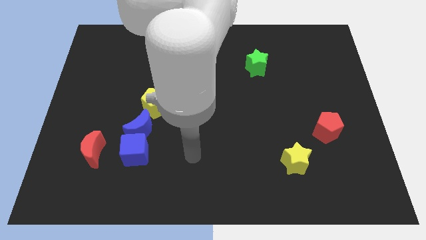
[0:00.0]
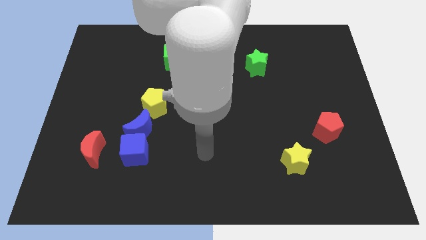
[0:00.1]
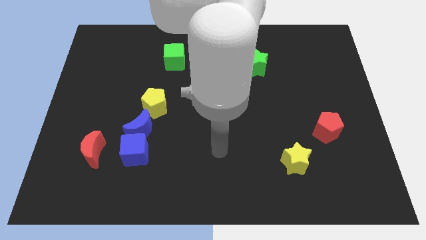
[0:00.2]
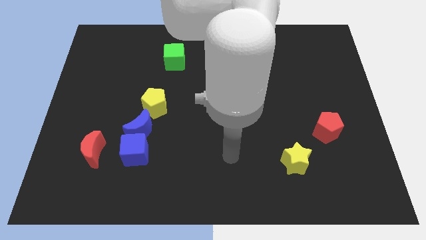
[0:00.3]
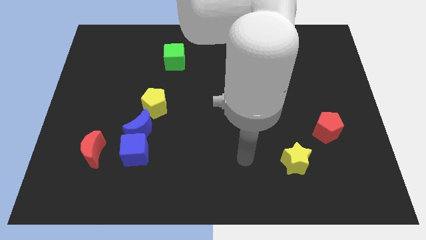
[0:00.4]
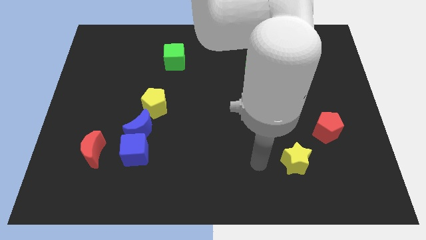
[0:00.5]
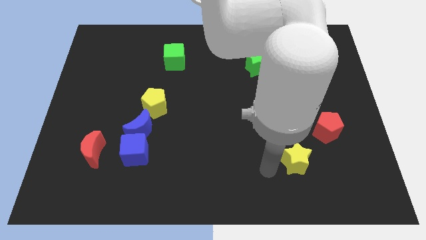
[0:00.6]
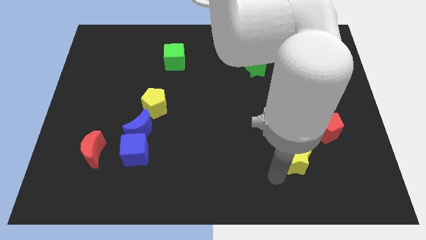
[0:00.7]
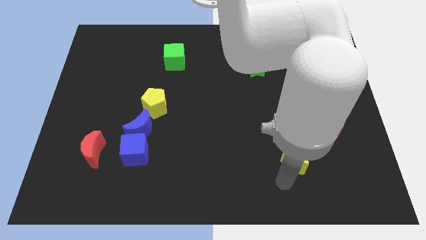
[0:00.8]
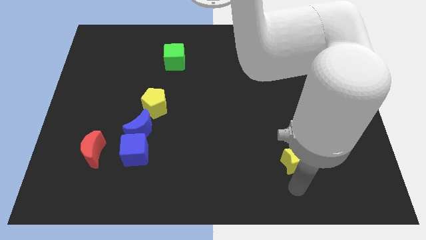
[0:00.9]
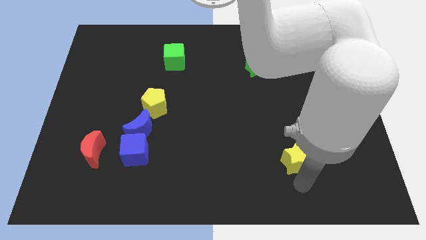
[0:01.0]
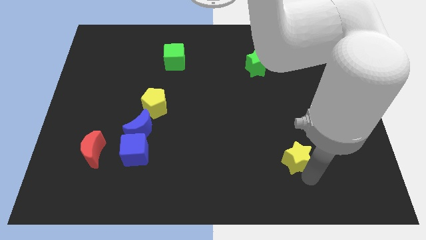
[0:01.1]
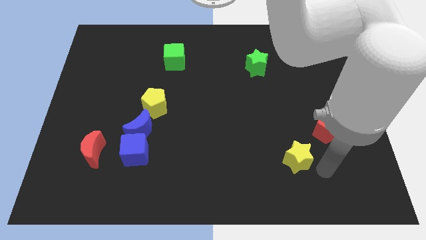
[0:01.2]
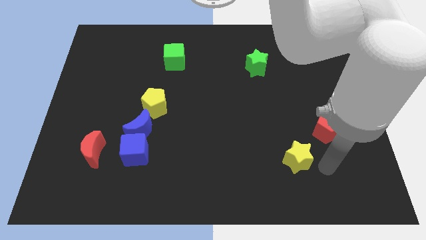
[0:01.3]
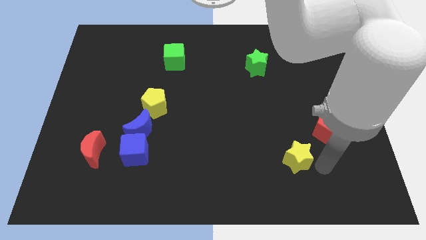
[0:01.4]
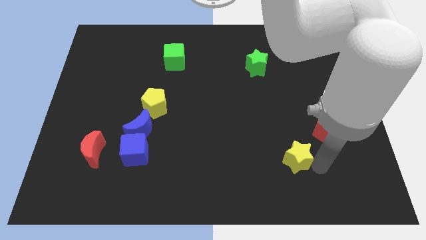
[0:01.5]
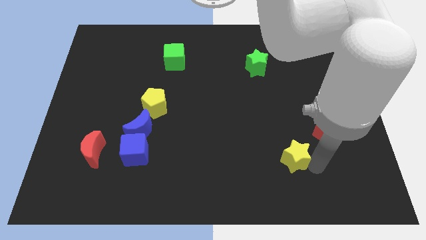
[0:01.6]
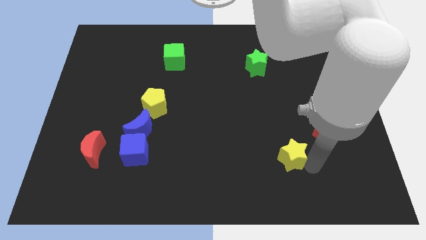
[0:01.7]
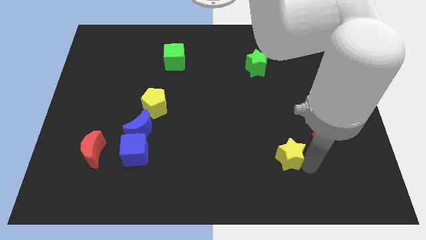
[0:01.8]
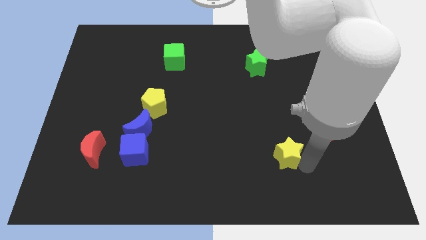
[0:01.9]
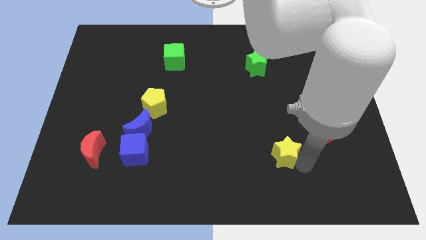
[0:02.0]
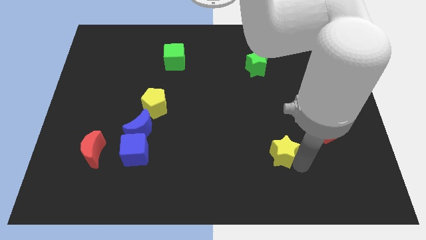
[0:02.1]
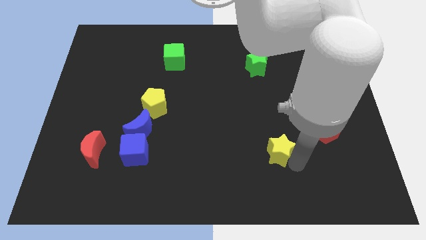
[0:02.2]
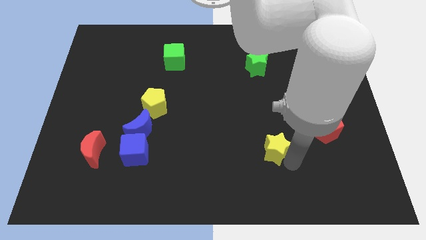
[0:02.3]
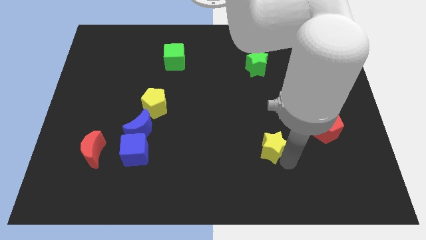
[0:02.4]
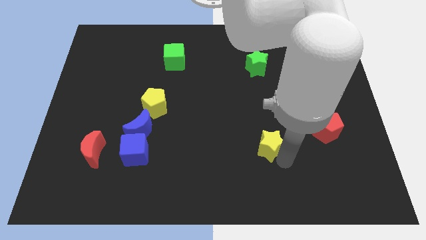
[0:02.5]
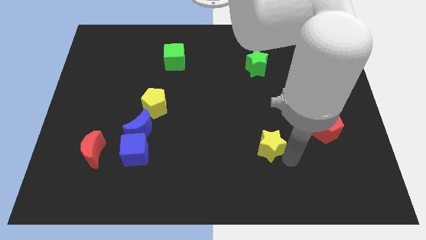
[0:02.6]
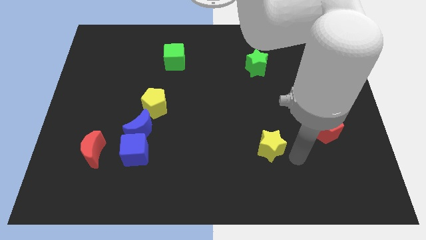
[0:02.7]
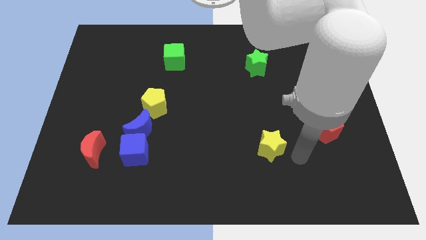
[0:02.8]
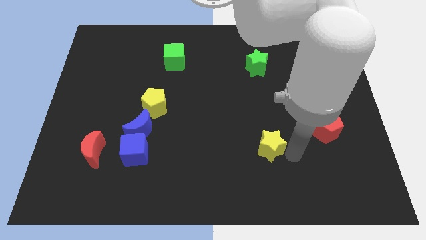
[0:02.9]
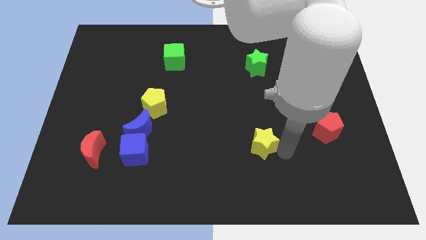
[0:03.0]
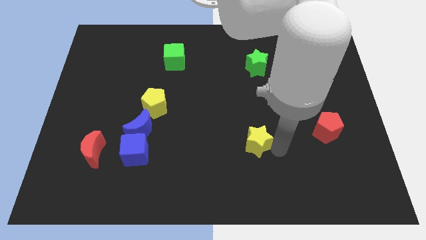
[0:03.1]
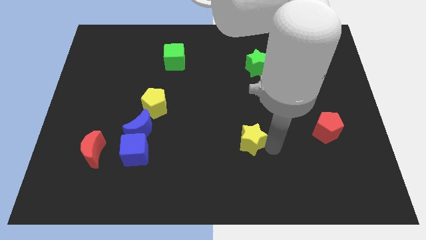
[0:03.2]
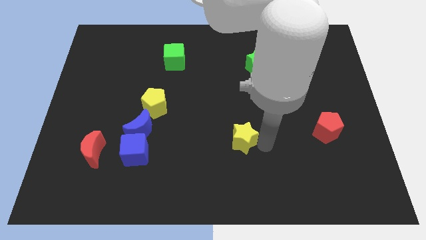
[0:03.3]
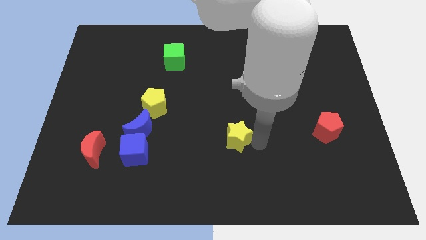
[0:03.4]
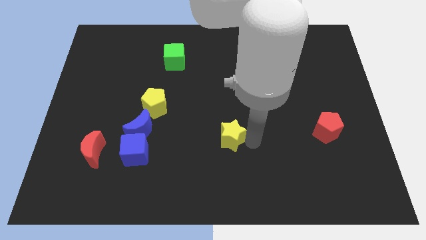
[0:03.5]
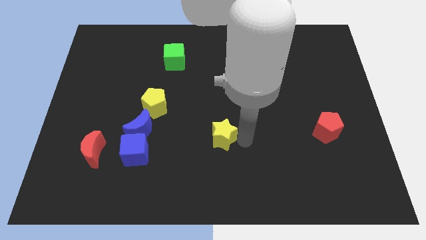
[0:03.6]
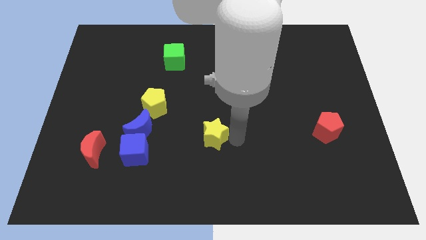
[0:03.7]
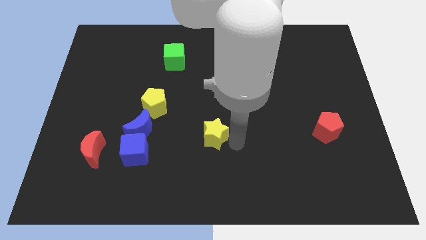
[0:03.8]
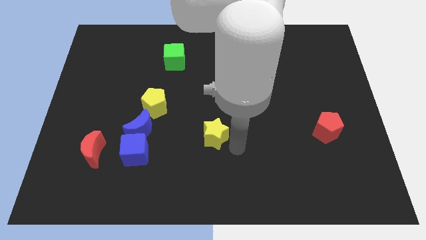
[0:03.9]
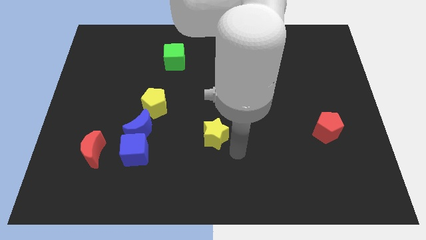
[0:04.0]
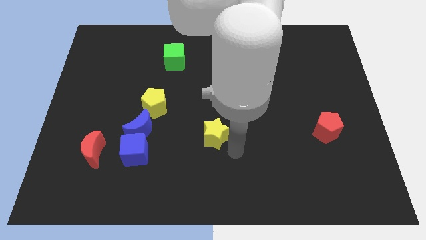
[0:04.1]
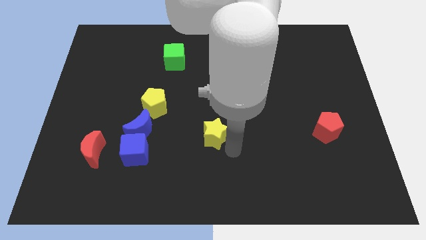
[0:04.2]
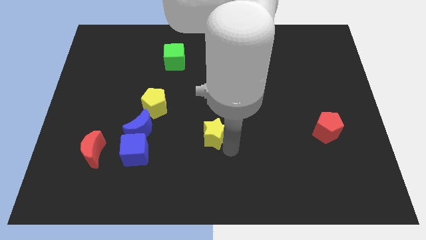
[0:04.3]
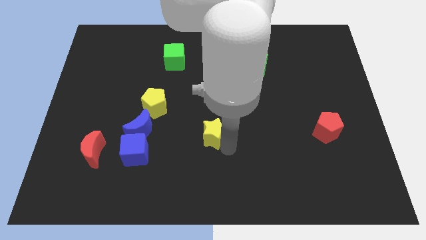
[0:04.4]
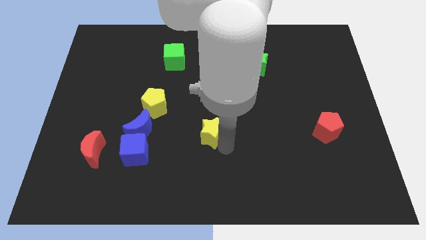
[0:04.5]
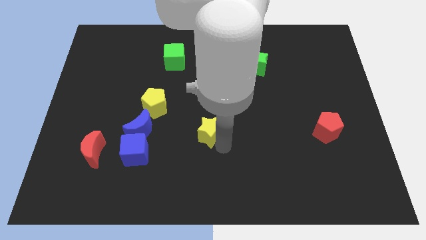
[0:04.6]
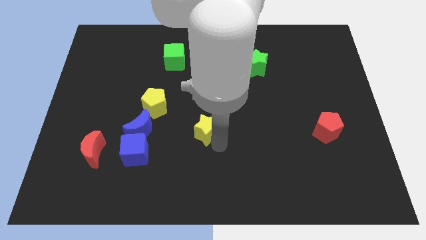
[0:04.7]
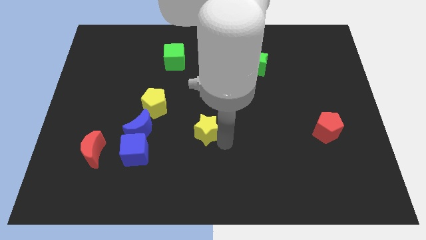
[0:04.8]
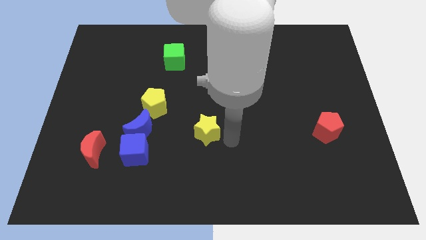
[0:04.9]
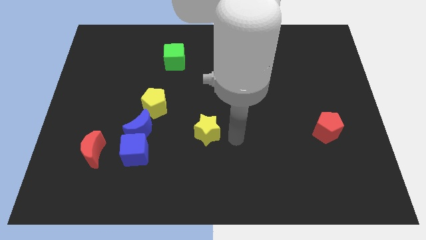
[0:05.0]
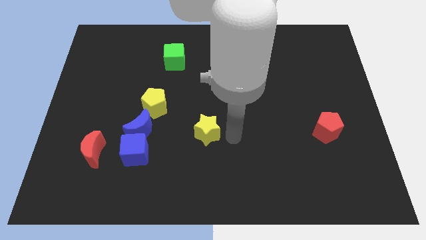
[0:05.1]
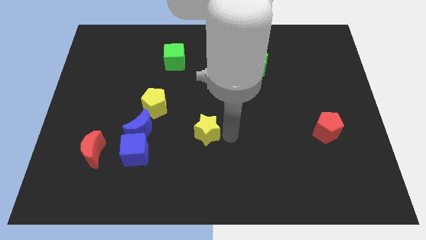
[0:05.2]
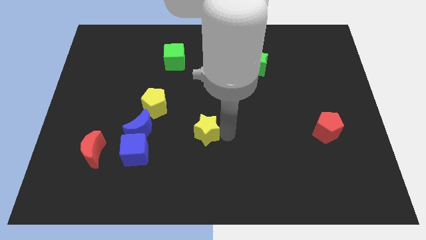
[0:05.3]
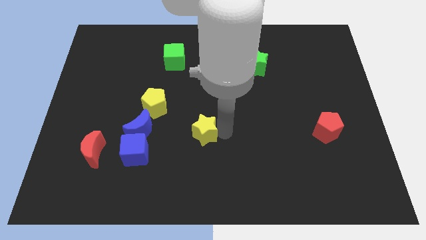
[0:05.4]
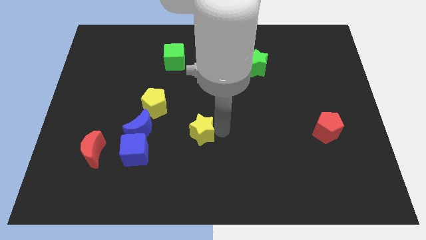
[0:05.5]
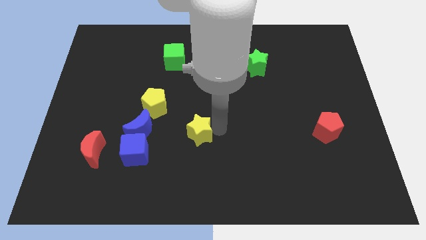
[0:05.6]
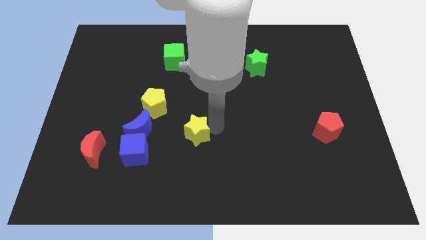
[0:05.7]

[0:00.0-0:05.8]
move the yellow star diagonally down and to the right of the yellow pentagon
